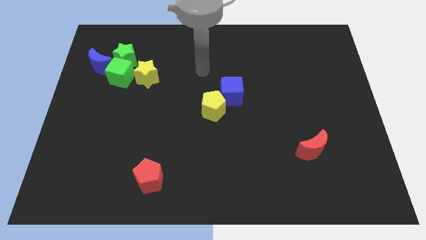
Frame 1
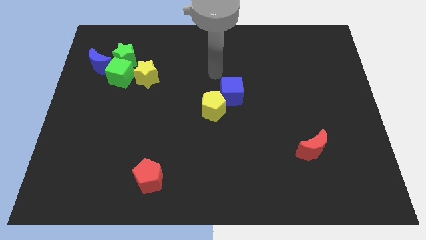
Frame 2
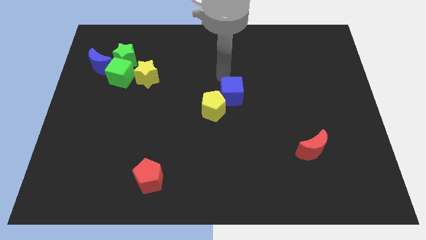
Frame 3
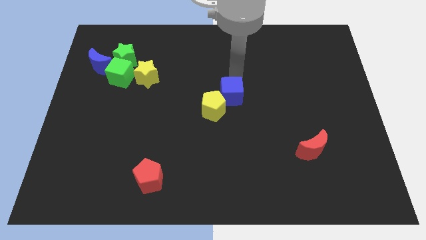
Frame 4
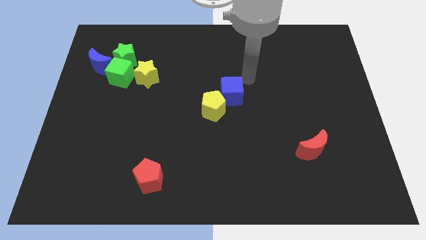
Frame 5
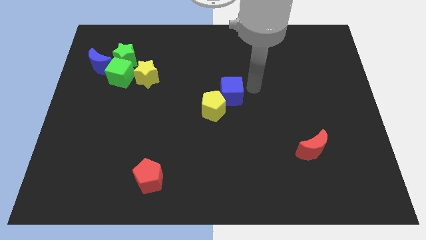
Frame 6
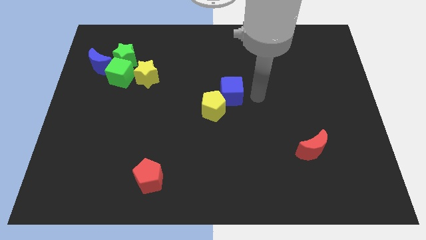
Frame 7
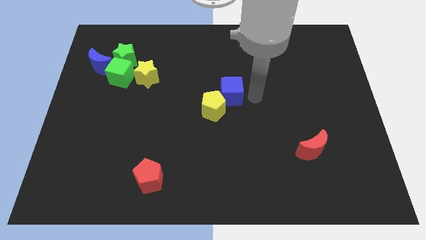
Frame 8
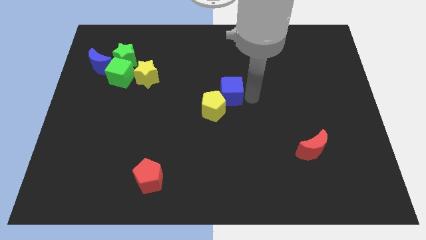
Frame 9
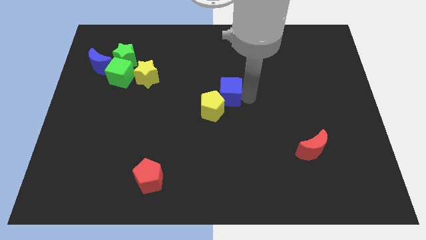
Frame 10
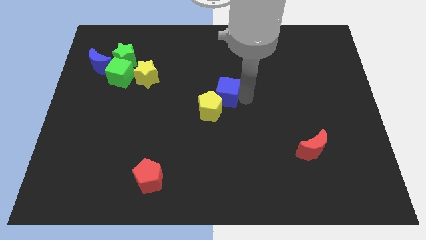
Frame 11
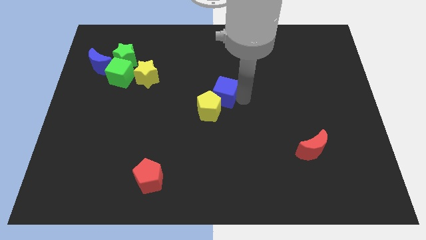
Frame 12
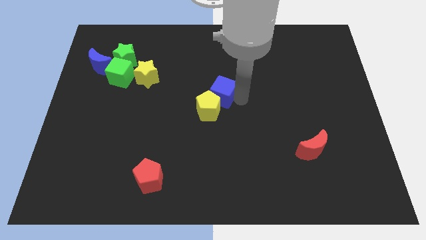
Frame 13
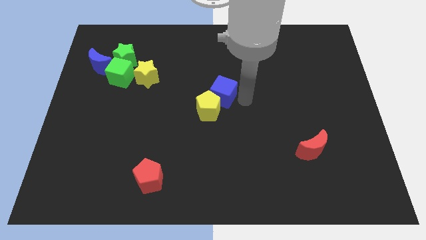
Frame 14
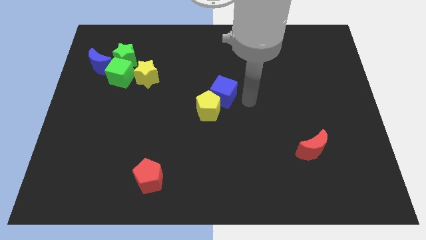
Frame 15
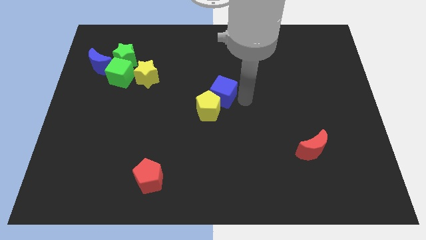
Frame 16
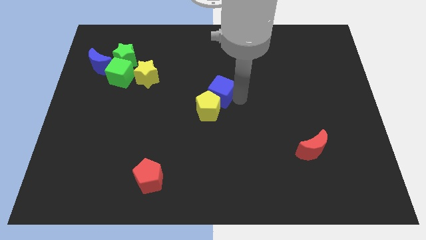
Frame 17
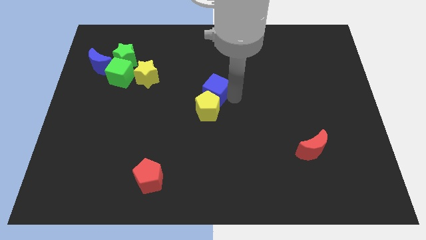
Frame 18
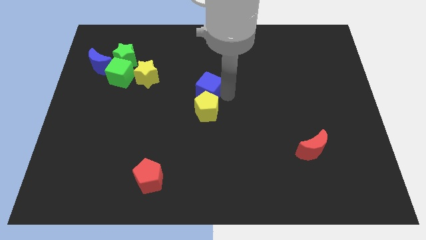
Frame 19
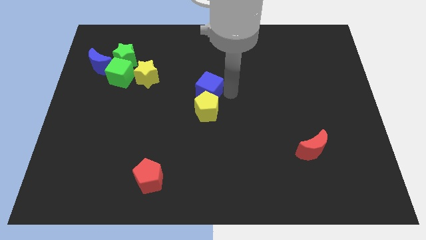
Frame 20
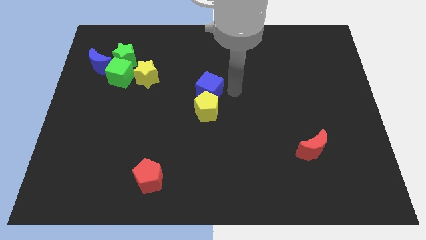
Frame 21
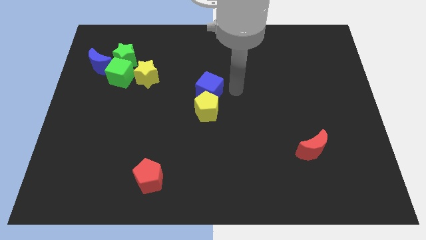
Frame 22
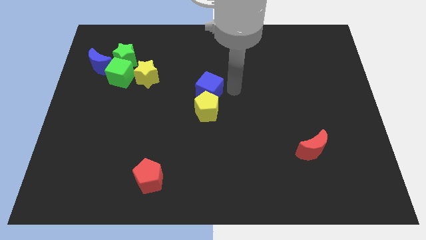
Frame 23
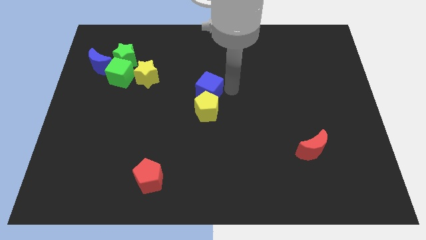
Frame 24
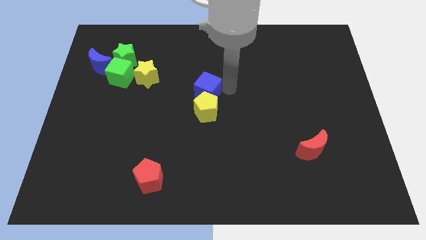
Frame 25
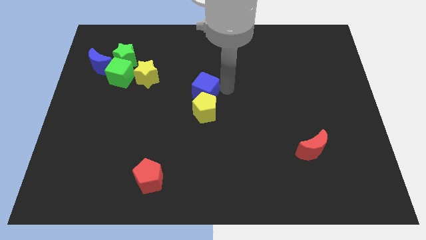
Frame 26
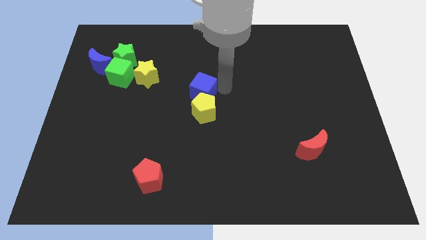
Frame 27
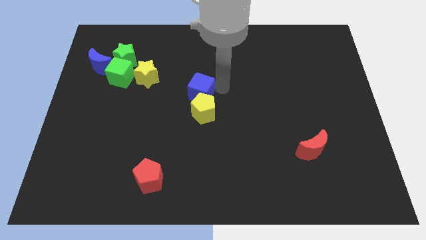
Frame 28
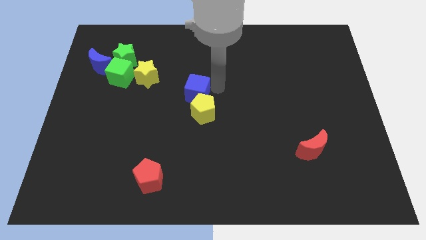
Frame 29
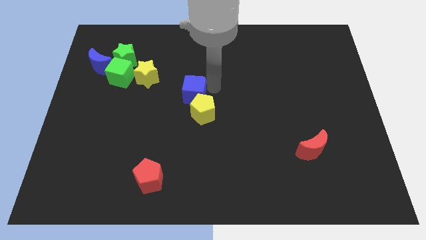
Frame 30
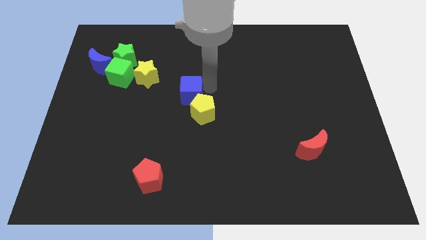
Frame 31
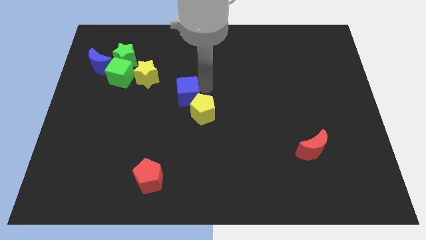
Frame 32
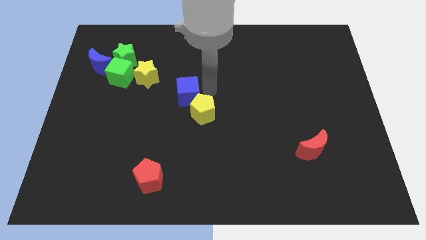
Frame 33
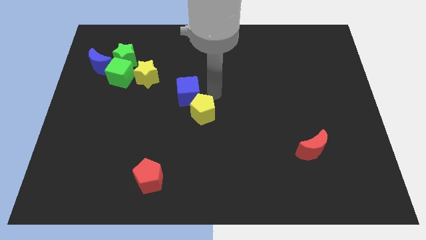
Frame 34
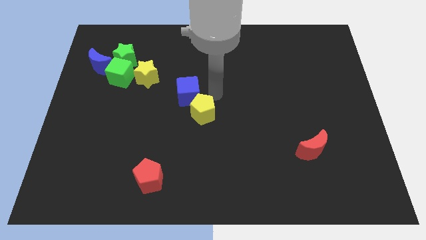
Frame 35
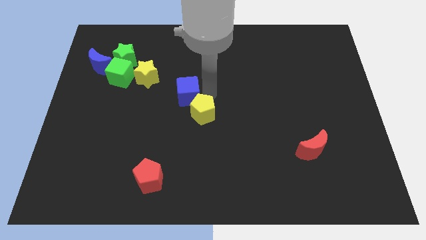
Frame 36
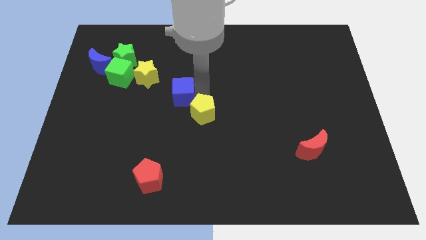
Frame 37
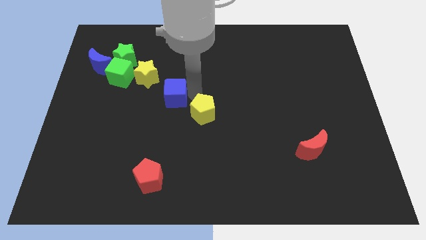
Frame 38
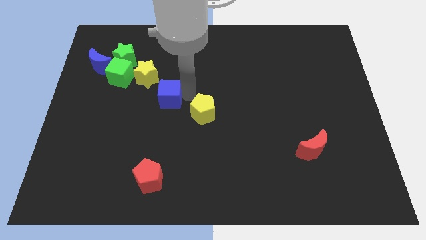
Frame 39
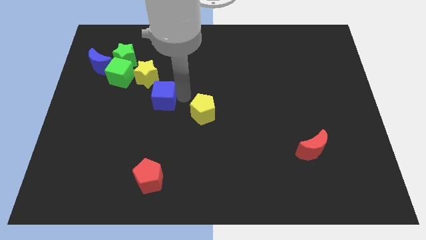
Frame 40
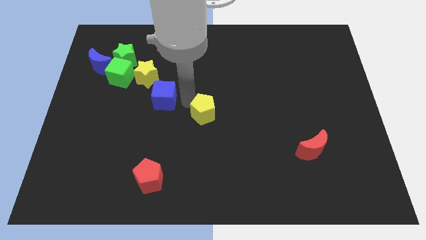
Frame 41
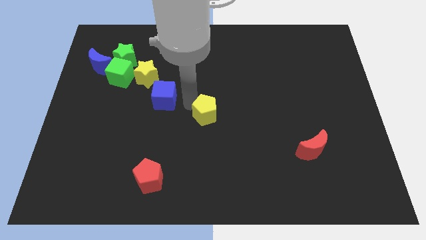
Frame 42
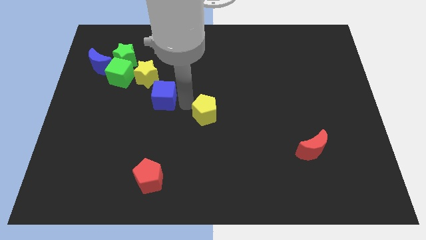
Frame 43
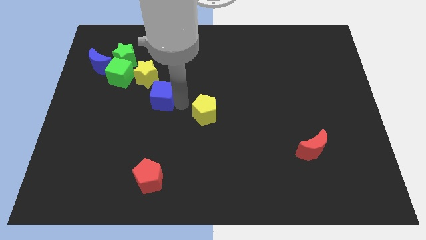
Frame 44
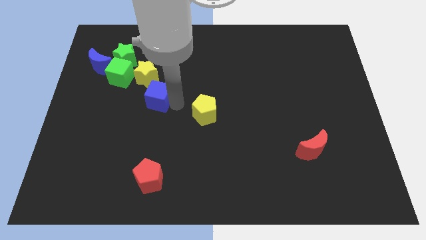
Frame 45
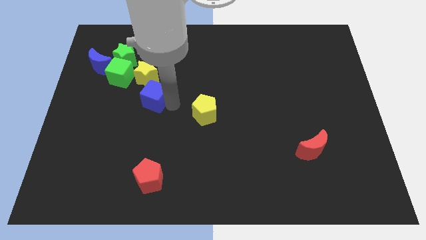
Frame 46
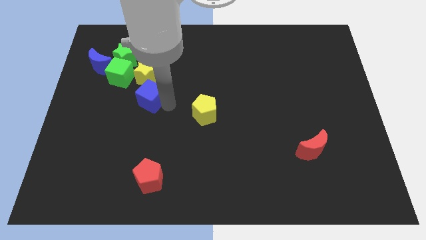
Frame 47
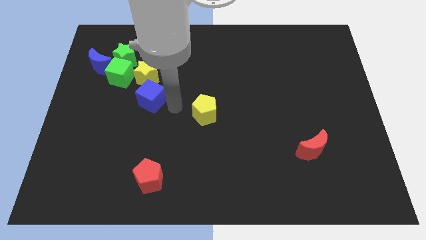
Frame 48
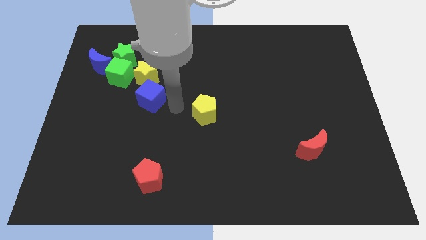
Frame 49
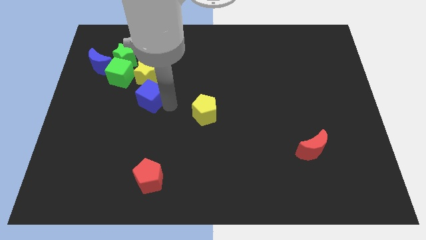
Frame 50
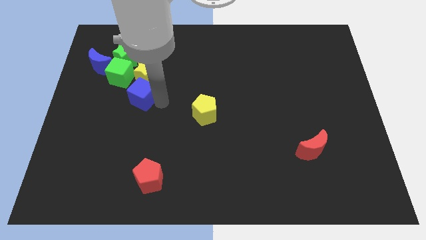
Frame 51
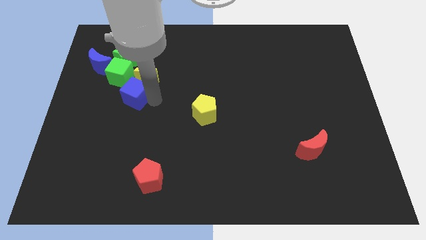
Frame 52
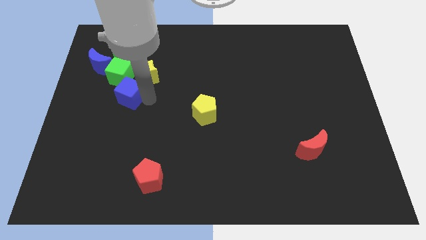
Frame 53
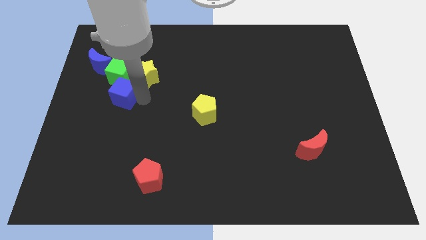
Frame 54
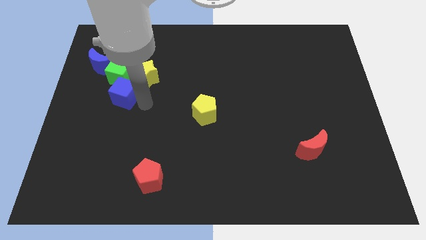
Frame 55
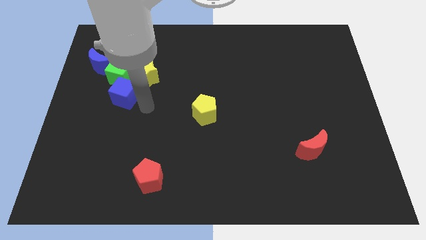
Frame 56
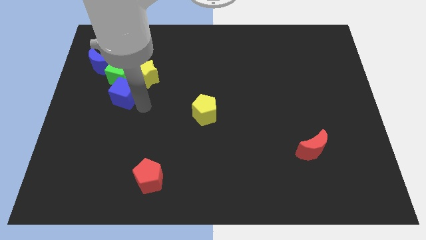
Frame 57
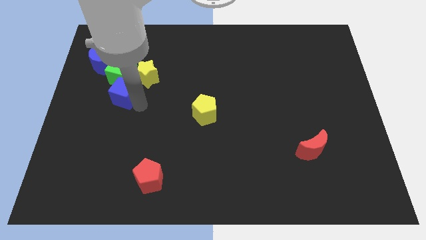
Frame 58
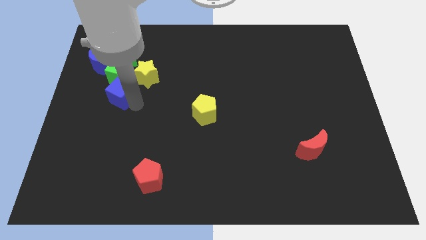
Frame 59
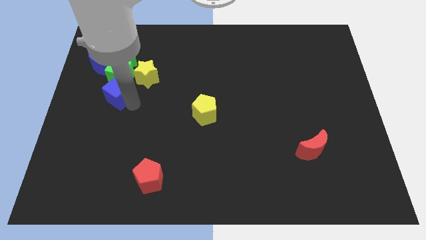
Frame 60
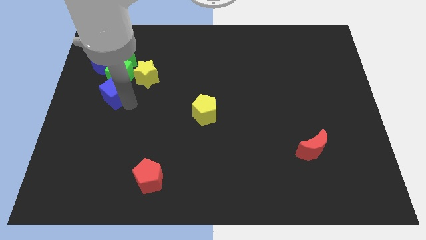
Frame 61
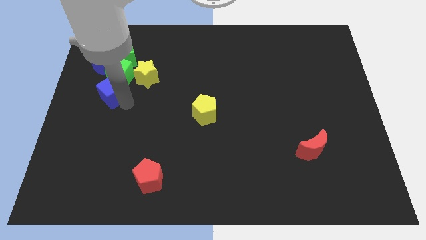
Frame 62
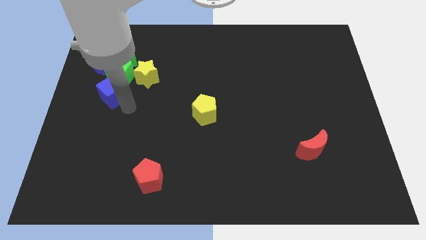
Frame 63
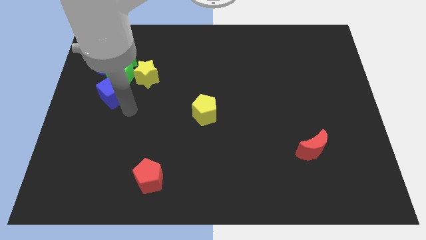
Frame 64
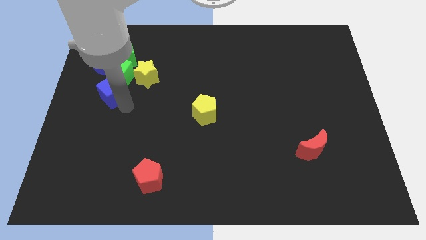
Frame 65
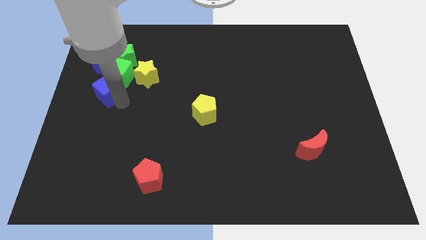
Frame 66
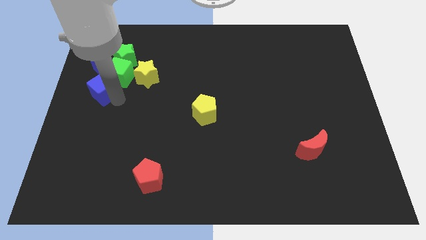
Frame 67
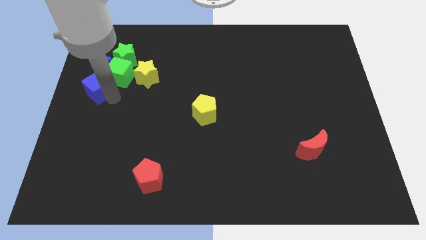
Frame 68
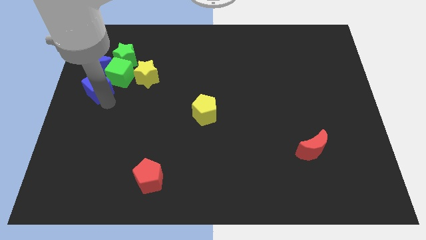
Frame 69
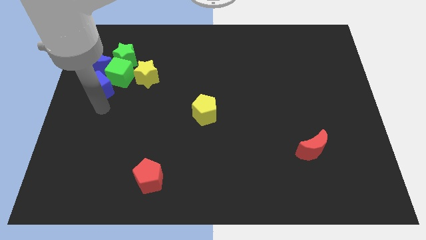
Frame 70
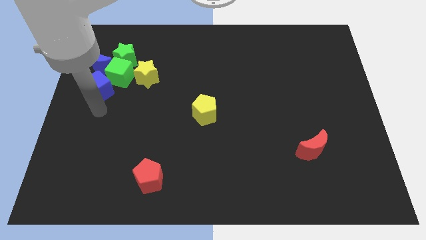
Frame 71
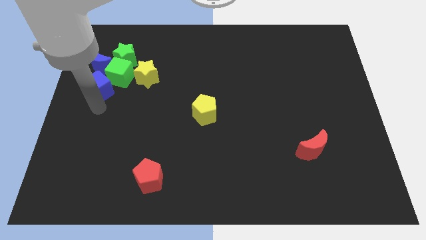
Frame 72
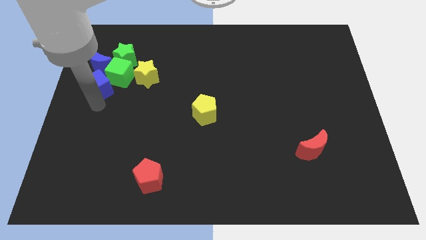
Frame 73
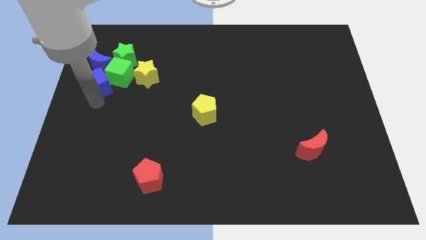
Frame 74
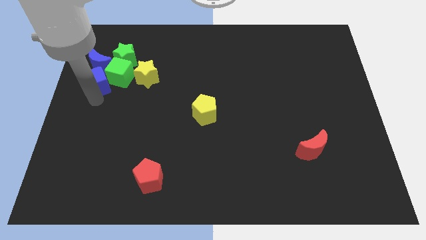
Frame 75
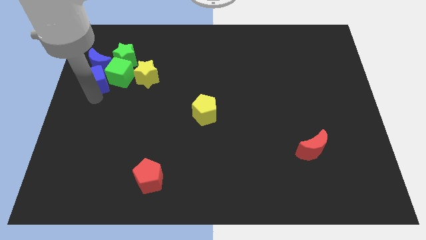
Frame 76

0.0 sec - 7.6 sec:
put the blue cube towards the blue moon
